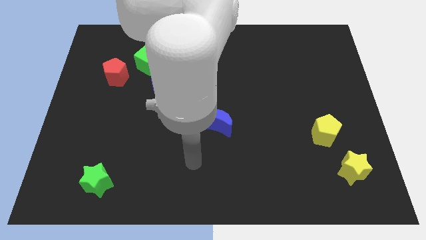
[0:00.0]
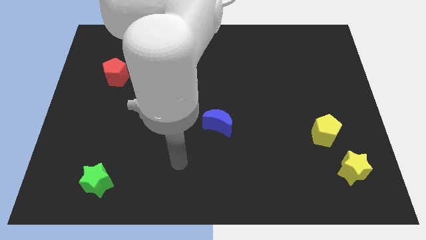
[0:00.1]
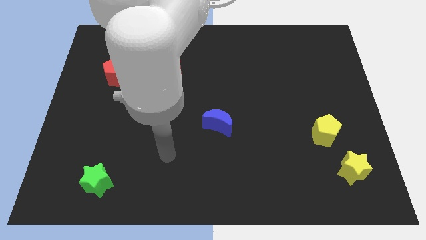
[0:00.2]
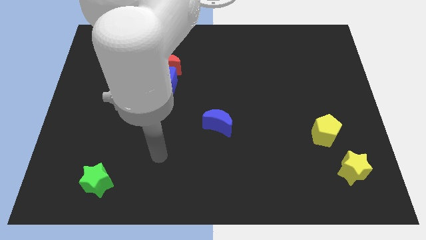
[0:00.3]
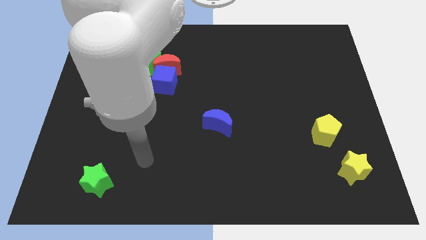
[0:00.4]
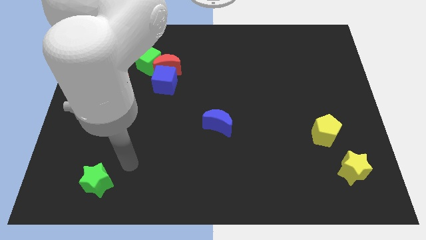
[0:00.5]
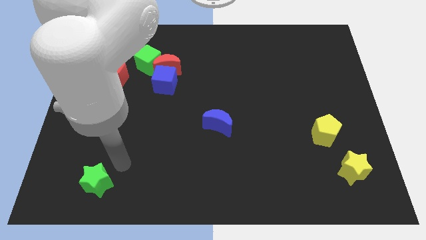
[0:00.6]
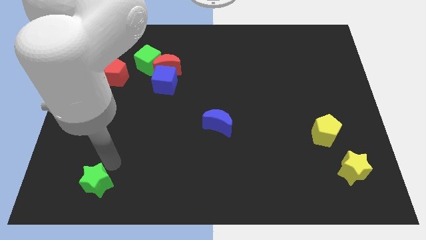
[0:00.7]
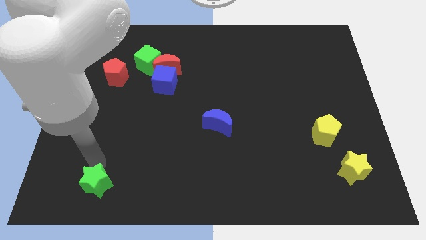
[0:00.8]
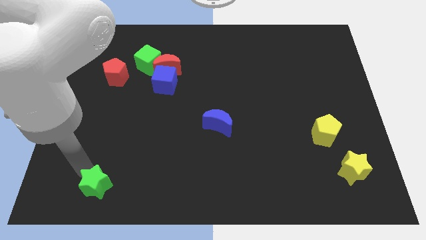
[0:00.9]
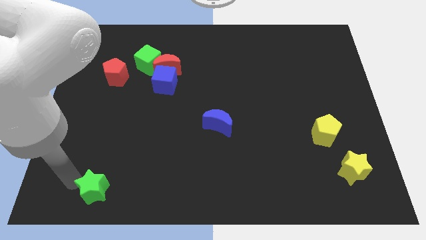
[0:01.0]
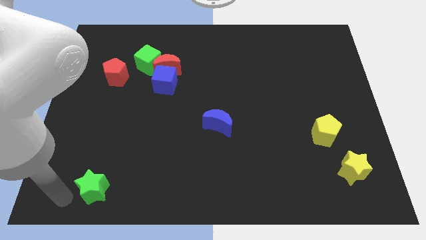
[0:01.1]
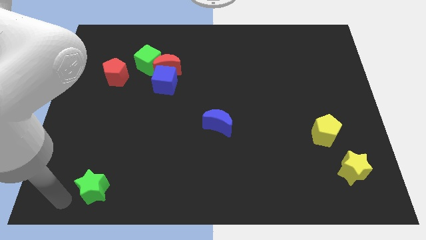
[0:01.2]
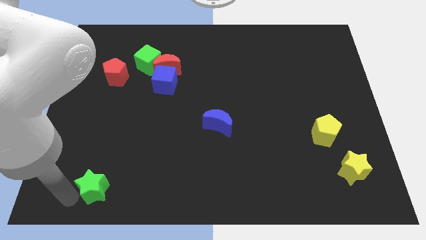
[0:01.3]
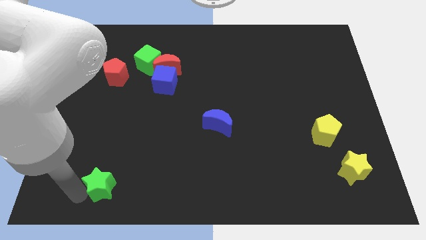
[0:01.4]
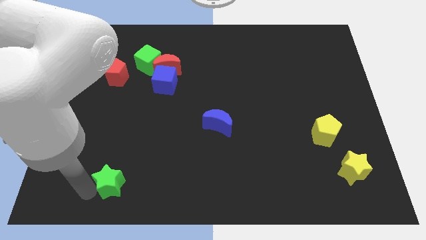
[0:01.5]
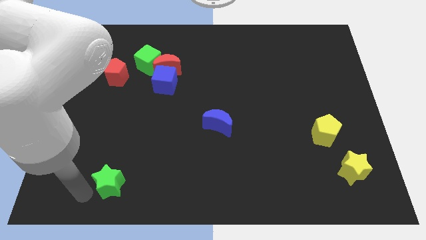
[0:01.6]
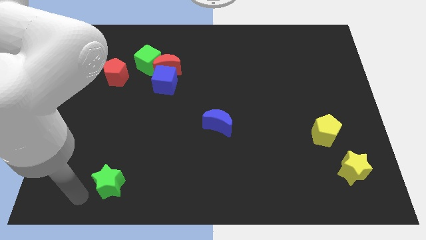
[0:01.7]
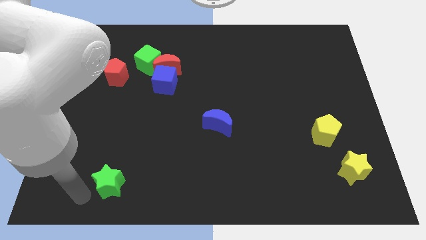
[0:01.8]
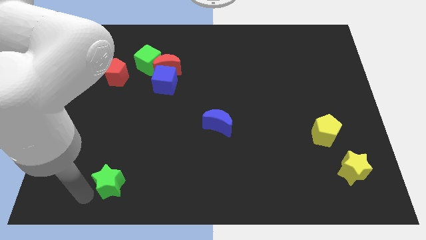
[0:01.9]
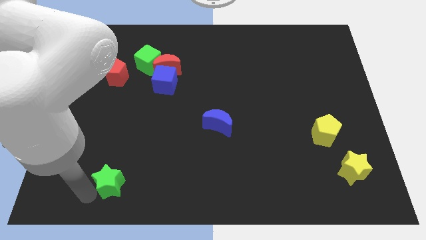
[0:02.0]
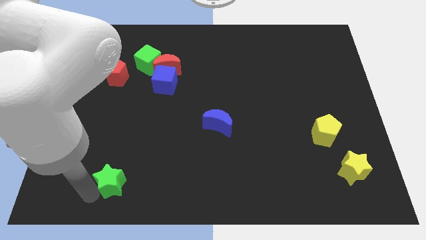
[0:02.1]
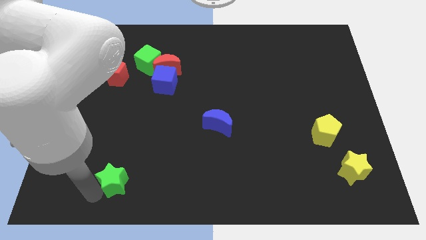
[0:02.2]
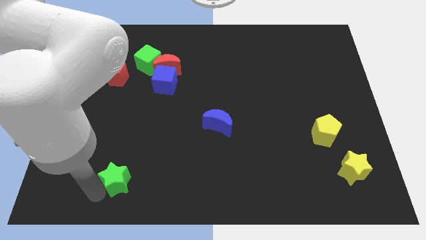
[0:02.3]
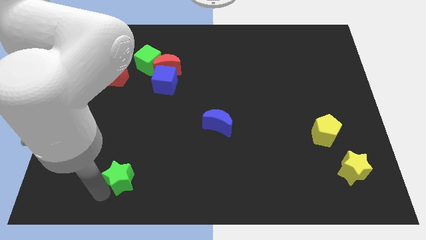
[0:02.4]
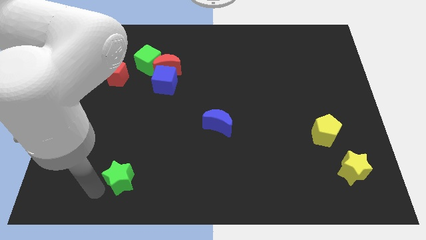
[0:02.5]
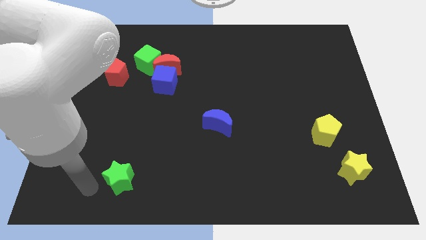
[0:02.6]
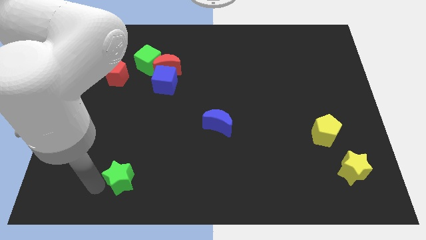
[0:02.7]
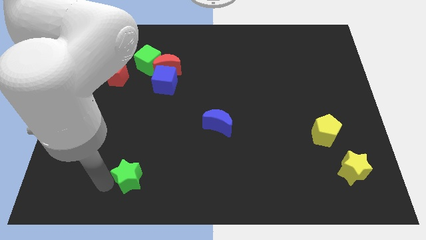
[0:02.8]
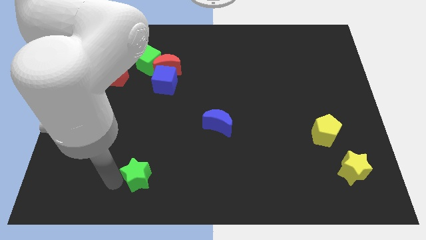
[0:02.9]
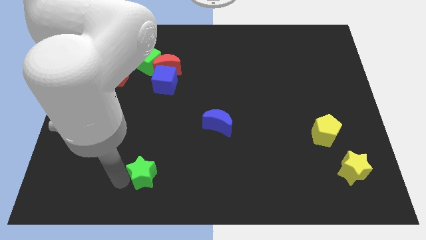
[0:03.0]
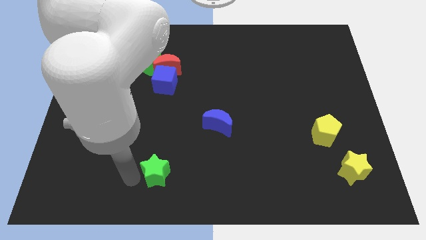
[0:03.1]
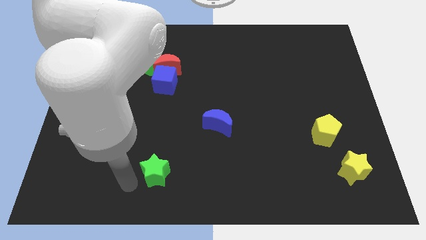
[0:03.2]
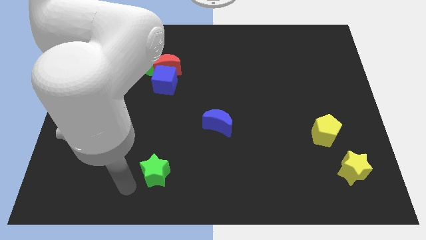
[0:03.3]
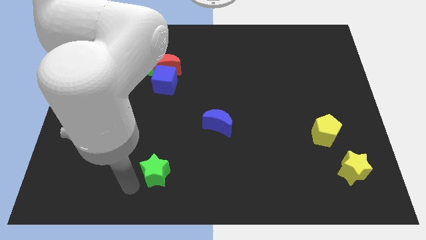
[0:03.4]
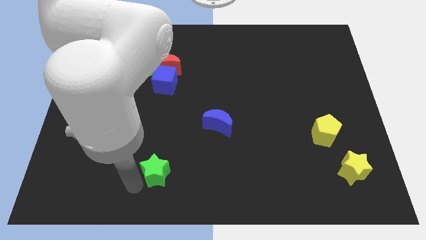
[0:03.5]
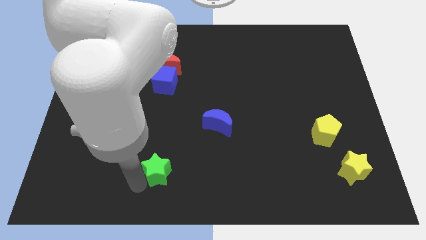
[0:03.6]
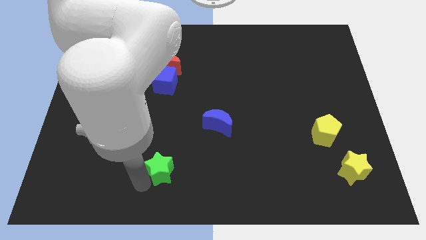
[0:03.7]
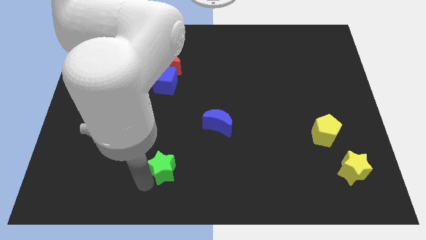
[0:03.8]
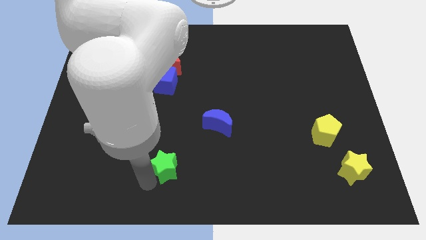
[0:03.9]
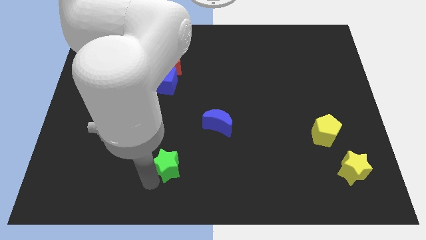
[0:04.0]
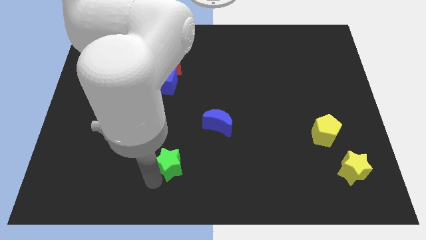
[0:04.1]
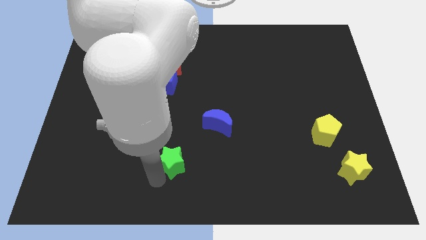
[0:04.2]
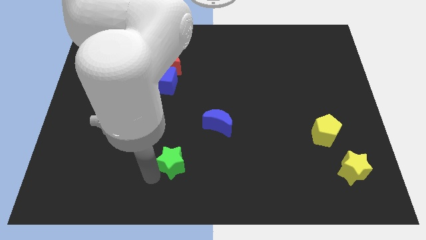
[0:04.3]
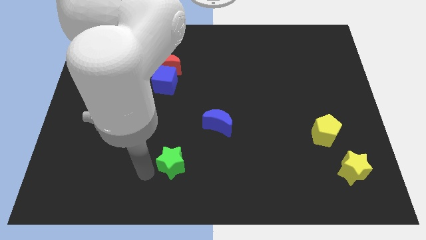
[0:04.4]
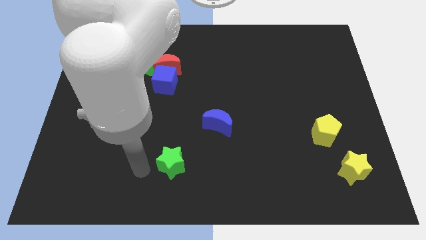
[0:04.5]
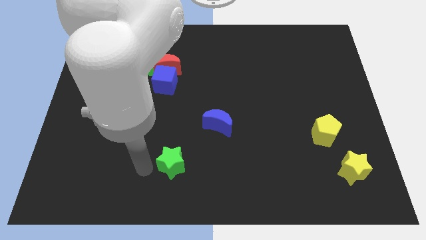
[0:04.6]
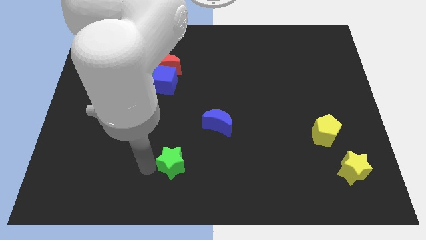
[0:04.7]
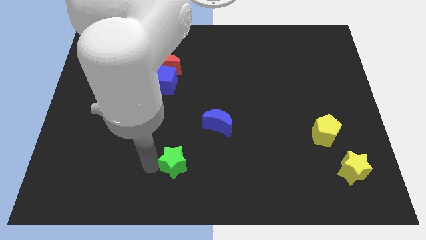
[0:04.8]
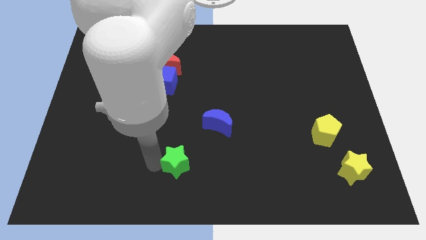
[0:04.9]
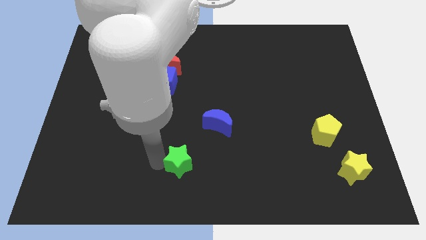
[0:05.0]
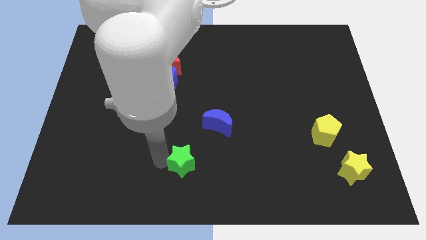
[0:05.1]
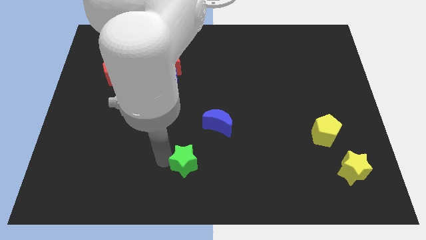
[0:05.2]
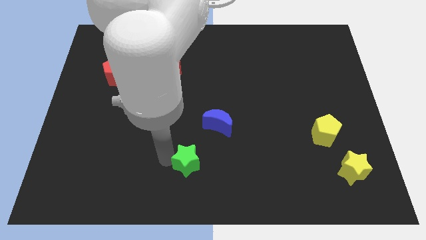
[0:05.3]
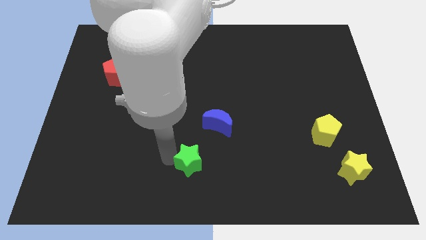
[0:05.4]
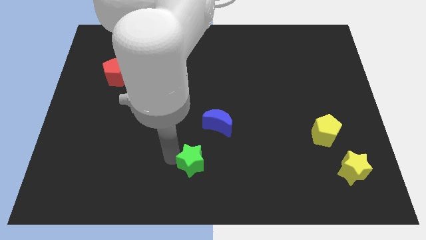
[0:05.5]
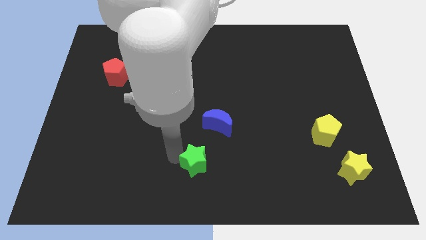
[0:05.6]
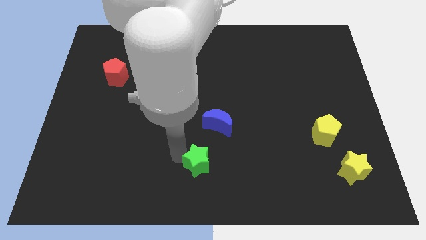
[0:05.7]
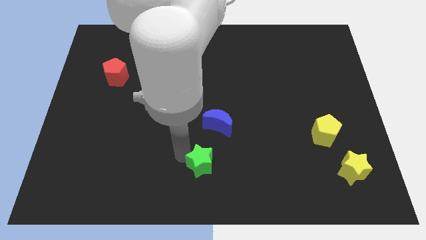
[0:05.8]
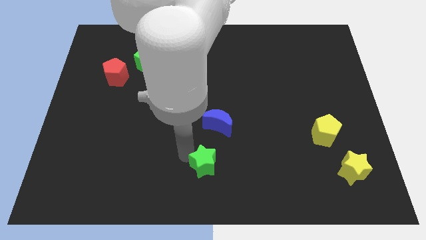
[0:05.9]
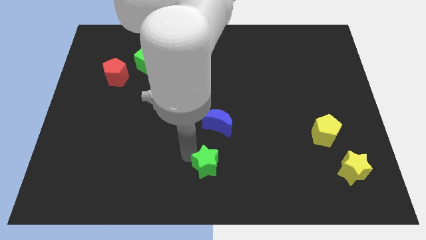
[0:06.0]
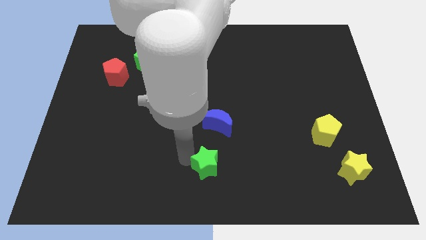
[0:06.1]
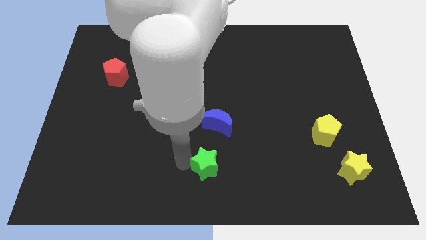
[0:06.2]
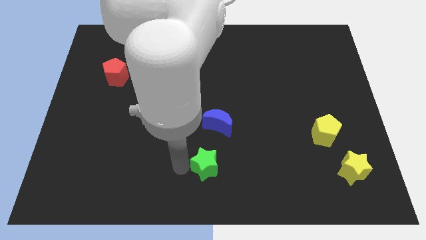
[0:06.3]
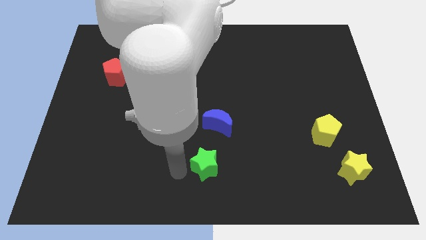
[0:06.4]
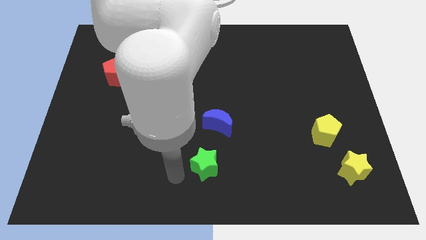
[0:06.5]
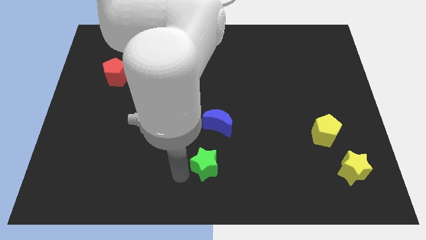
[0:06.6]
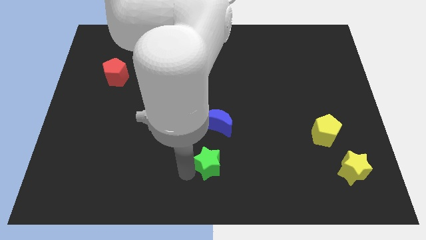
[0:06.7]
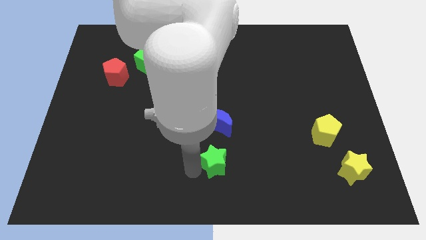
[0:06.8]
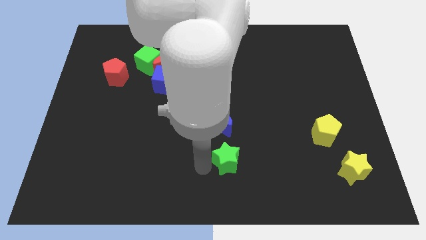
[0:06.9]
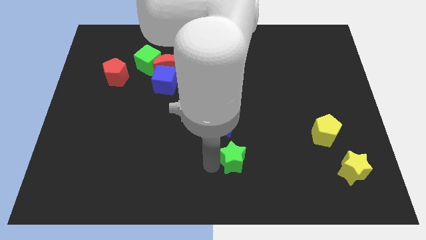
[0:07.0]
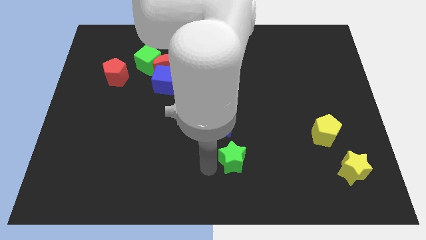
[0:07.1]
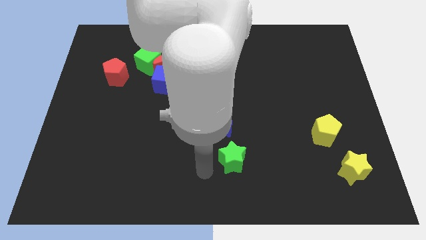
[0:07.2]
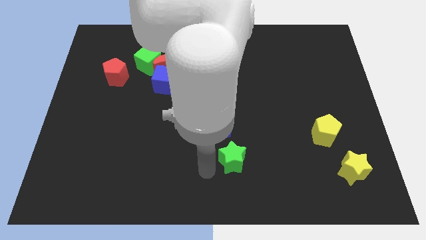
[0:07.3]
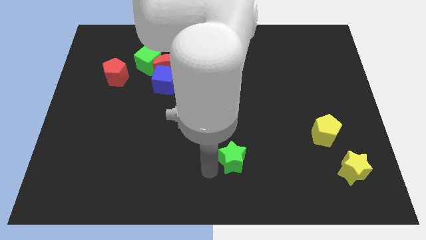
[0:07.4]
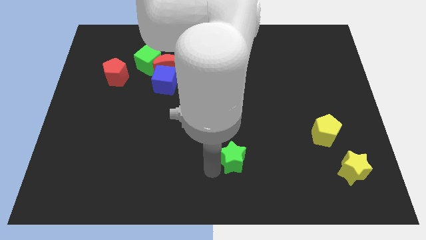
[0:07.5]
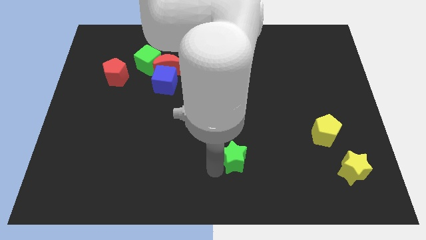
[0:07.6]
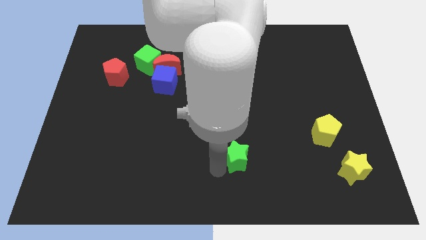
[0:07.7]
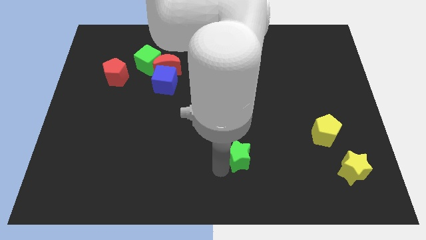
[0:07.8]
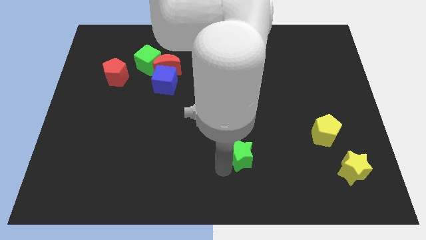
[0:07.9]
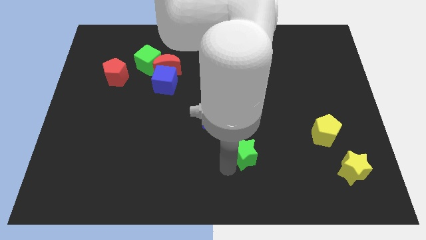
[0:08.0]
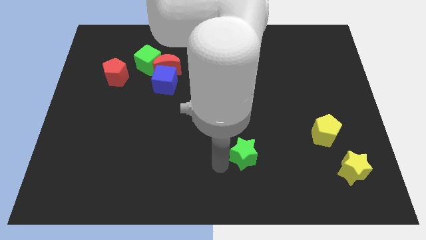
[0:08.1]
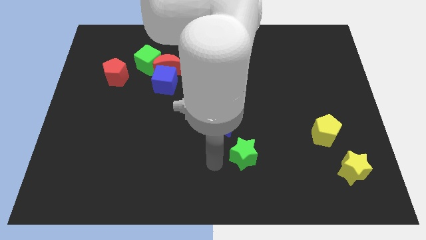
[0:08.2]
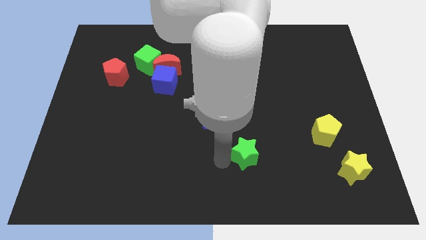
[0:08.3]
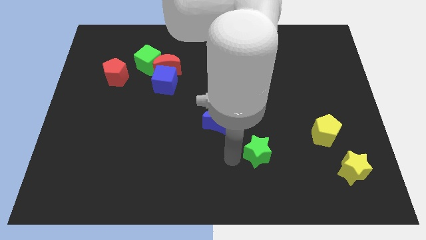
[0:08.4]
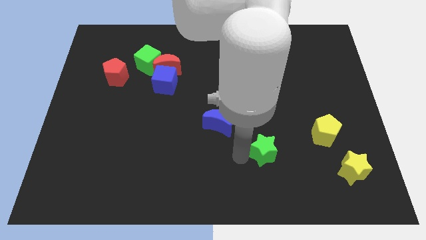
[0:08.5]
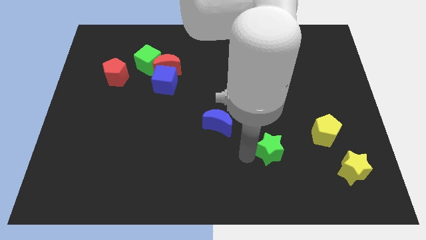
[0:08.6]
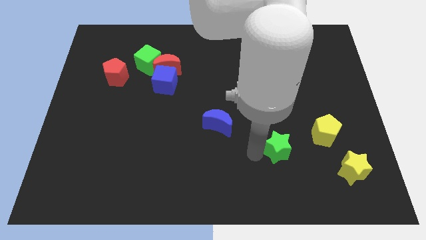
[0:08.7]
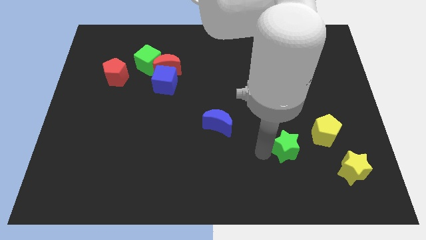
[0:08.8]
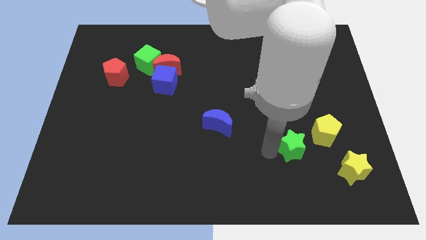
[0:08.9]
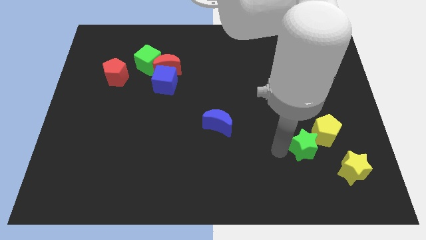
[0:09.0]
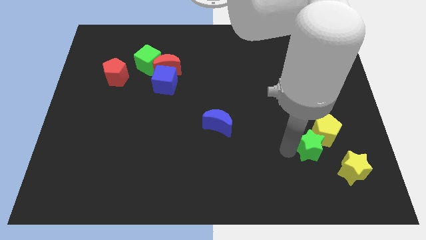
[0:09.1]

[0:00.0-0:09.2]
put the green star towards the yellow pentagon
